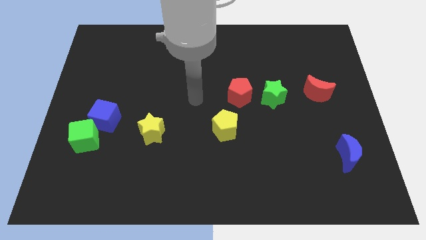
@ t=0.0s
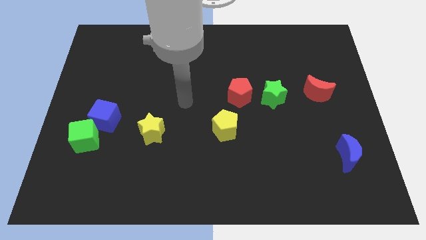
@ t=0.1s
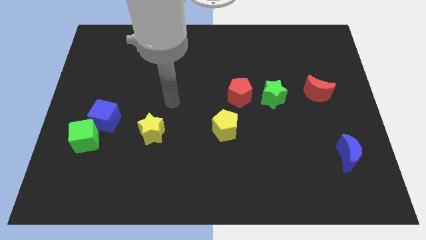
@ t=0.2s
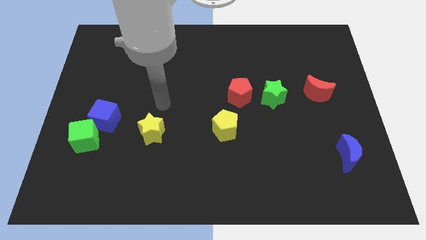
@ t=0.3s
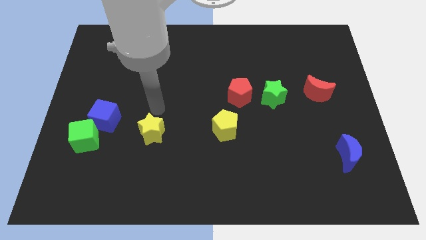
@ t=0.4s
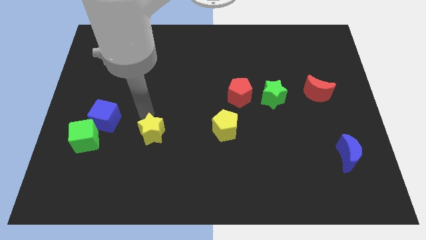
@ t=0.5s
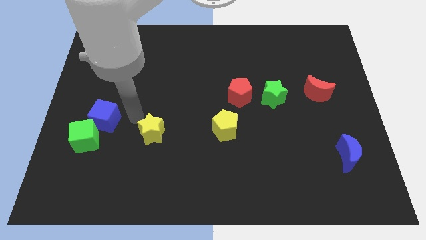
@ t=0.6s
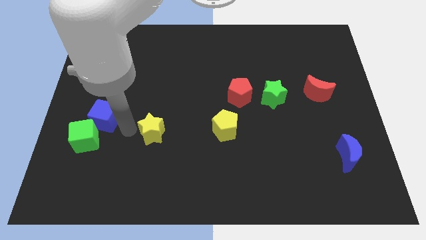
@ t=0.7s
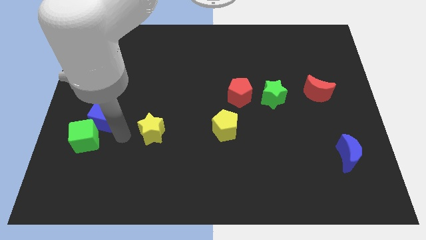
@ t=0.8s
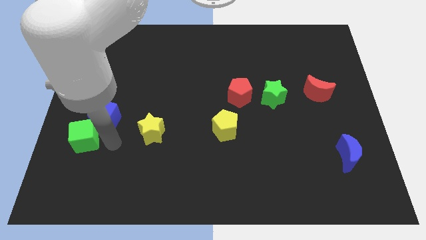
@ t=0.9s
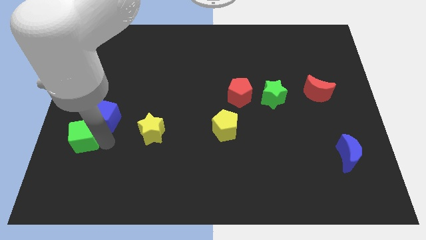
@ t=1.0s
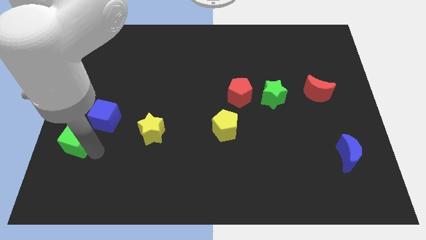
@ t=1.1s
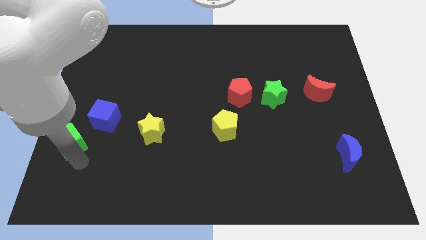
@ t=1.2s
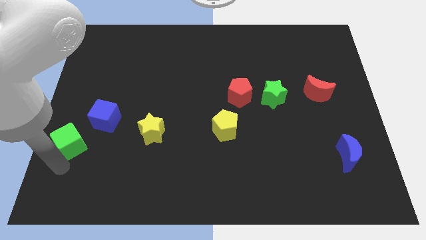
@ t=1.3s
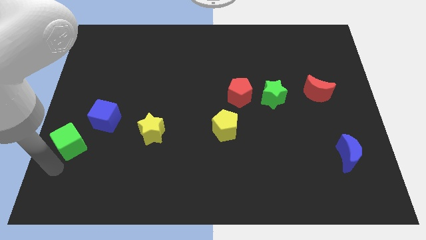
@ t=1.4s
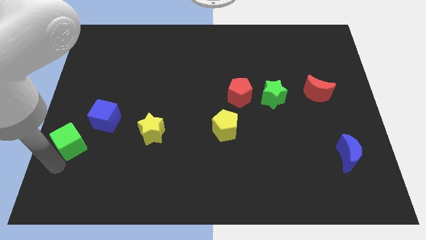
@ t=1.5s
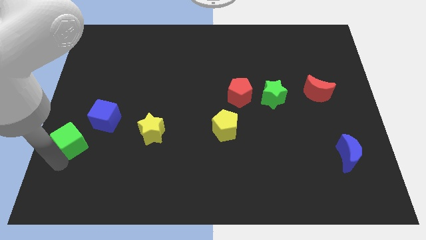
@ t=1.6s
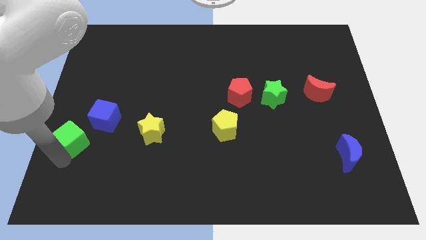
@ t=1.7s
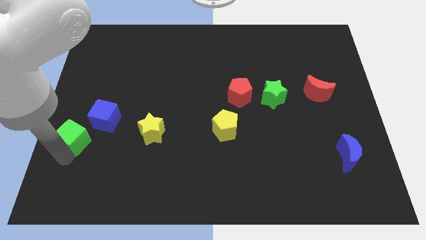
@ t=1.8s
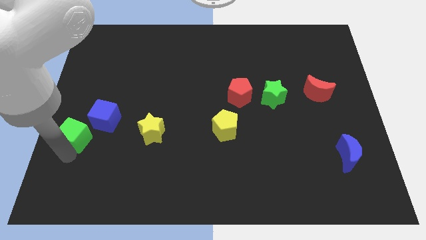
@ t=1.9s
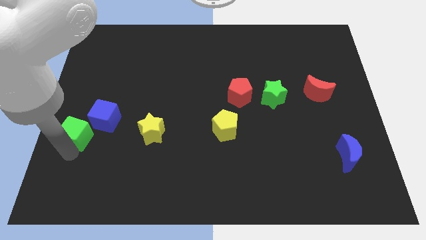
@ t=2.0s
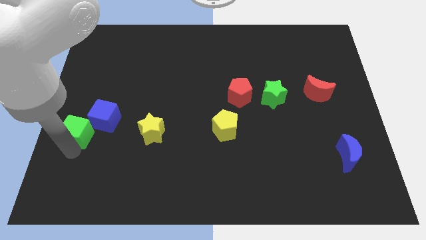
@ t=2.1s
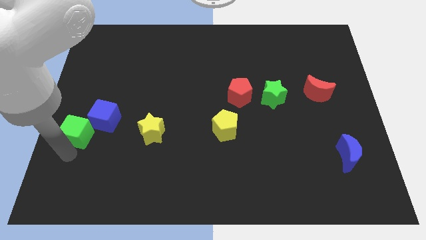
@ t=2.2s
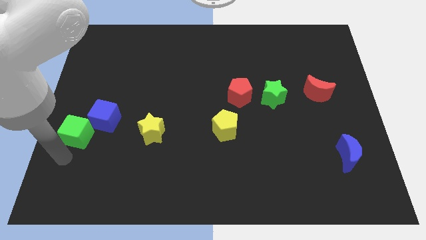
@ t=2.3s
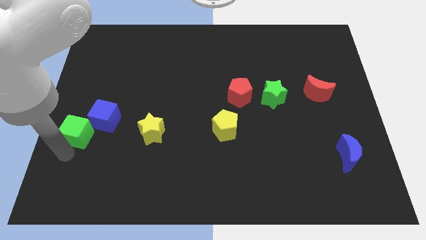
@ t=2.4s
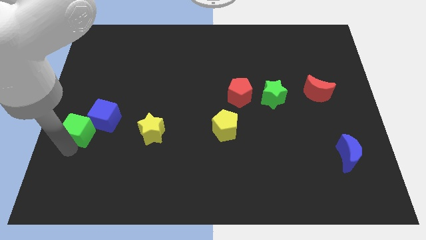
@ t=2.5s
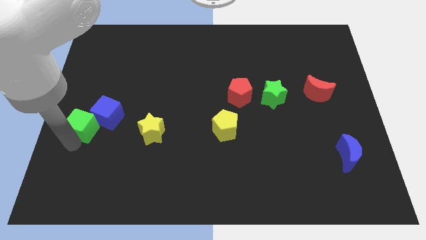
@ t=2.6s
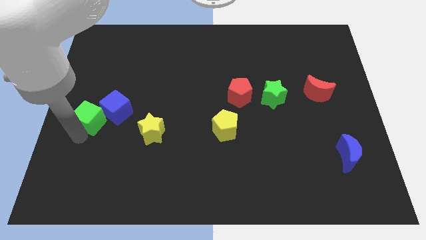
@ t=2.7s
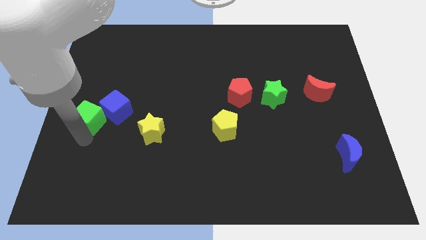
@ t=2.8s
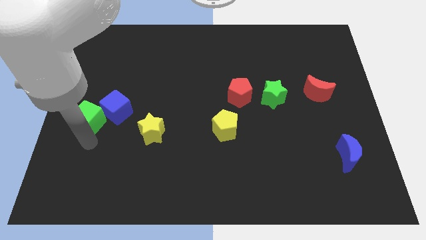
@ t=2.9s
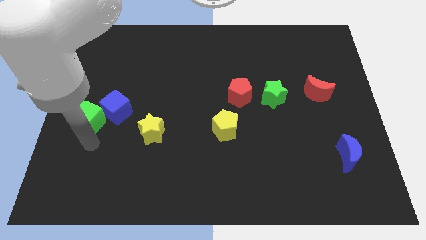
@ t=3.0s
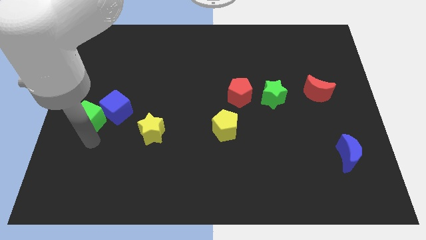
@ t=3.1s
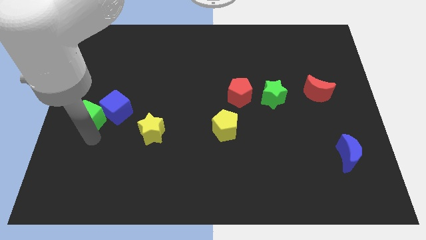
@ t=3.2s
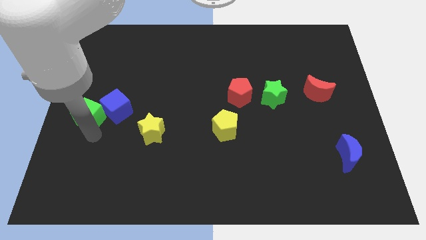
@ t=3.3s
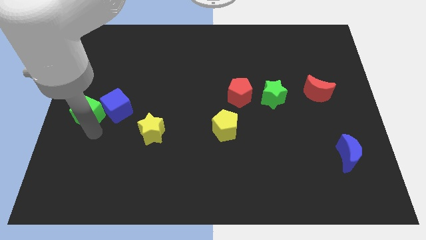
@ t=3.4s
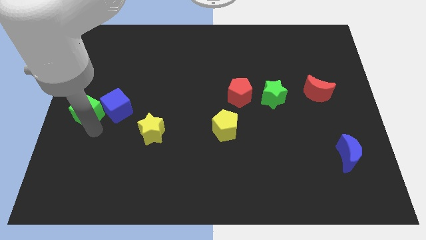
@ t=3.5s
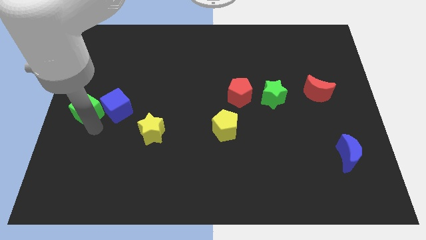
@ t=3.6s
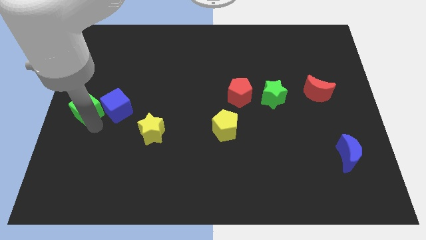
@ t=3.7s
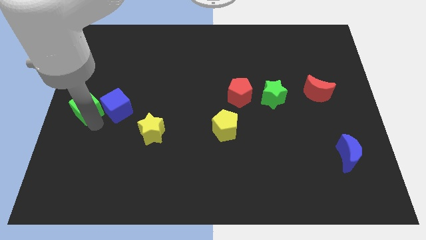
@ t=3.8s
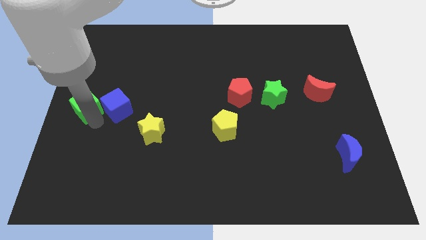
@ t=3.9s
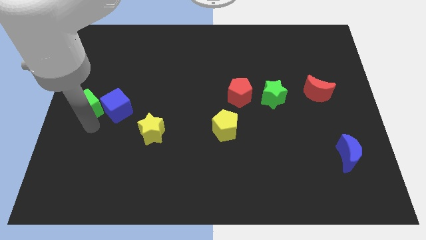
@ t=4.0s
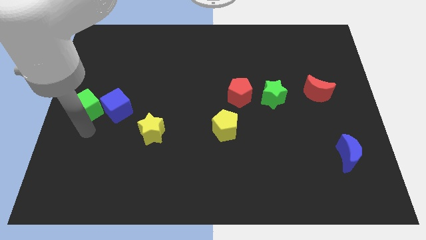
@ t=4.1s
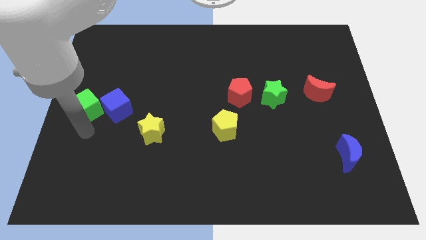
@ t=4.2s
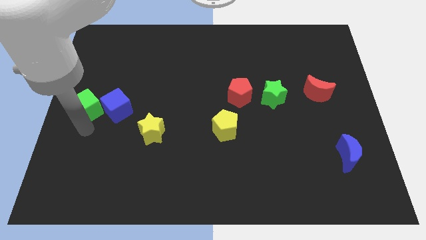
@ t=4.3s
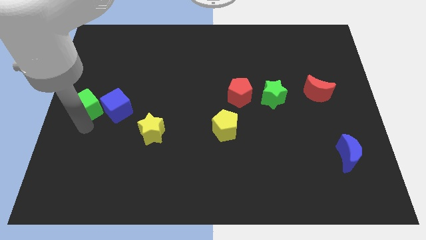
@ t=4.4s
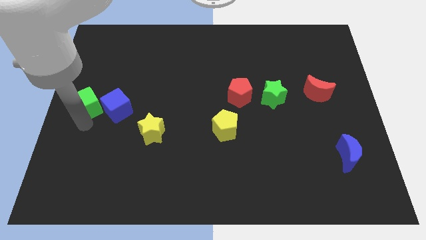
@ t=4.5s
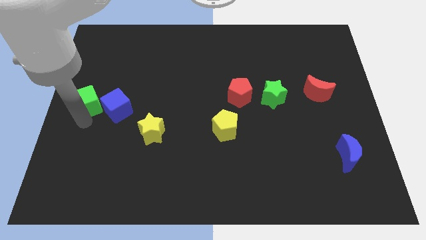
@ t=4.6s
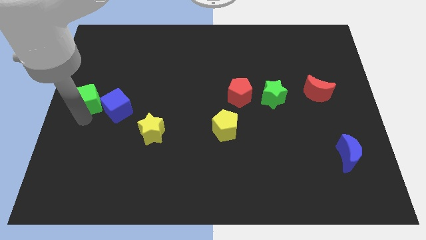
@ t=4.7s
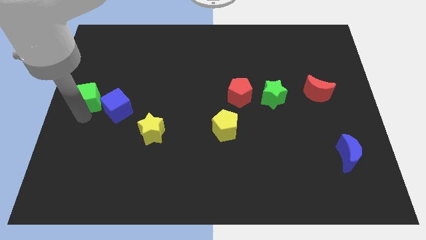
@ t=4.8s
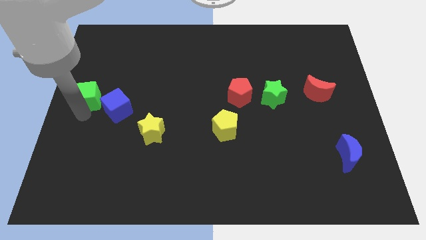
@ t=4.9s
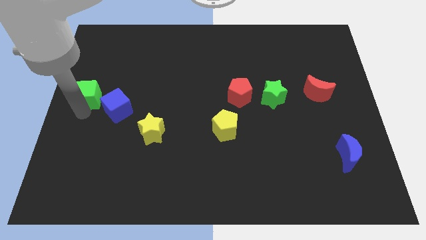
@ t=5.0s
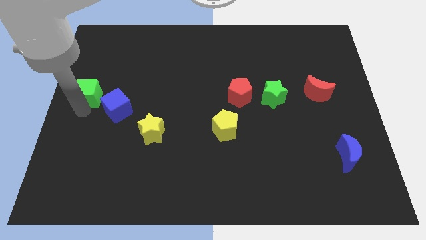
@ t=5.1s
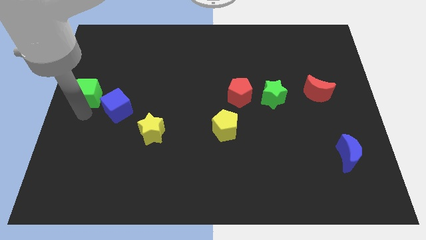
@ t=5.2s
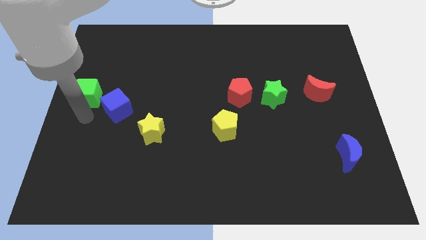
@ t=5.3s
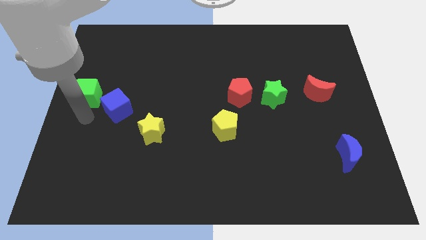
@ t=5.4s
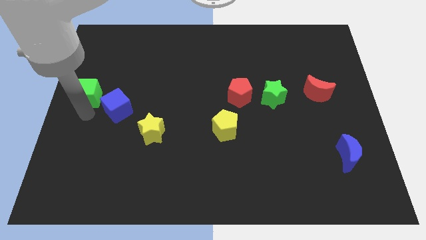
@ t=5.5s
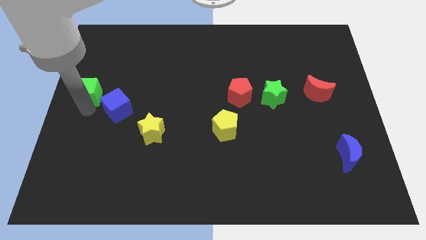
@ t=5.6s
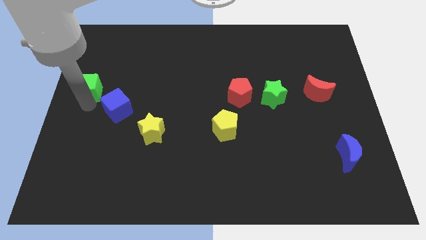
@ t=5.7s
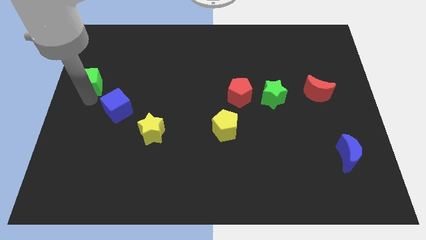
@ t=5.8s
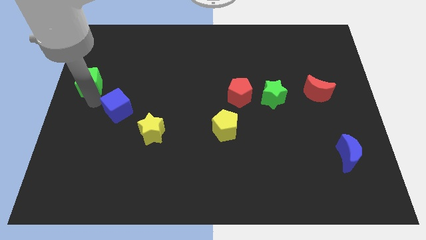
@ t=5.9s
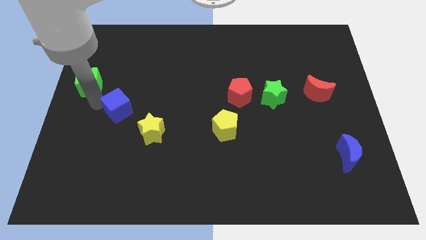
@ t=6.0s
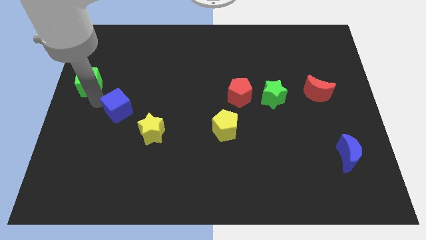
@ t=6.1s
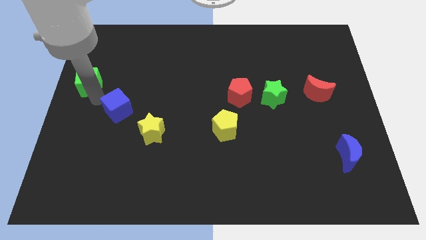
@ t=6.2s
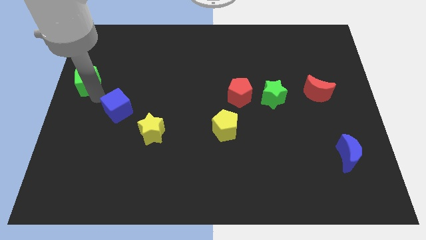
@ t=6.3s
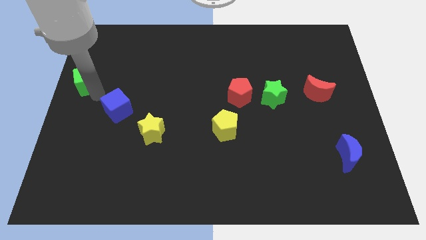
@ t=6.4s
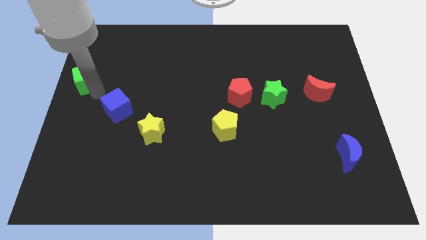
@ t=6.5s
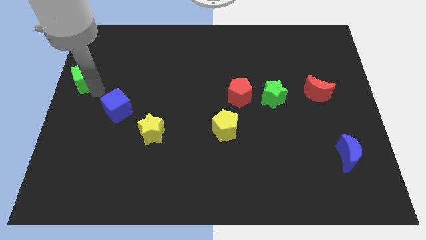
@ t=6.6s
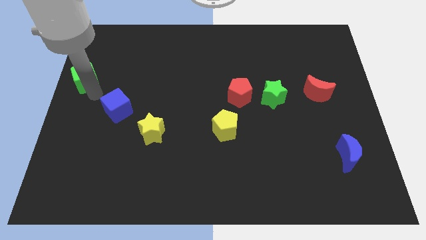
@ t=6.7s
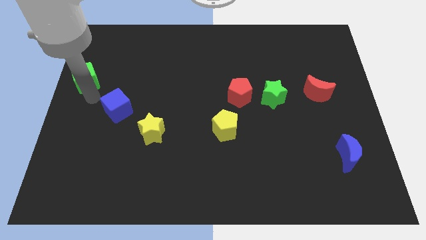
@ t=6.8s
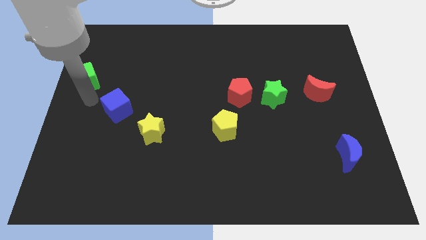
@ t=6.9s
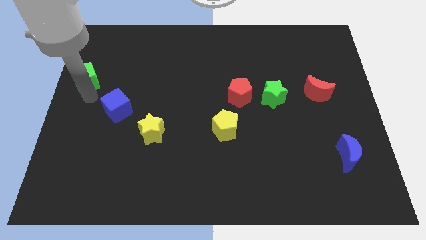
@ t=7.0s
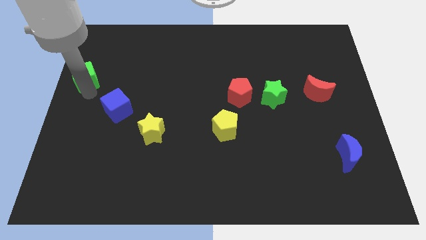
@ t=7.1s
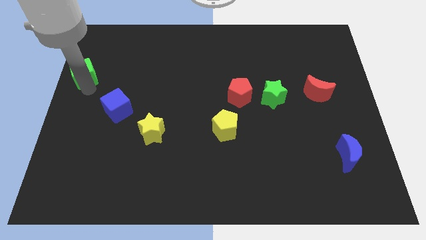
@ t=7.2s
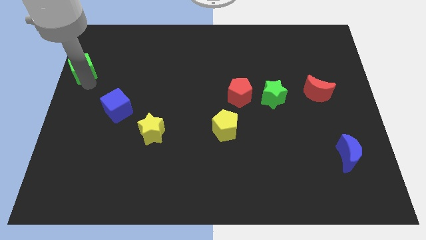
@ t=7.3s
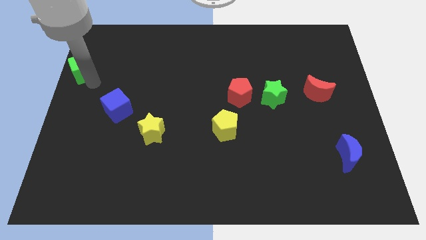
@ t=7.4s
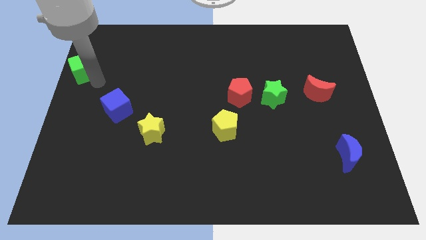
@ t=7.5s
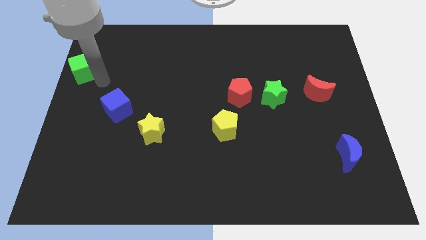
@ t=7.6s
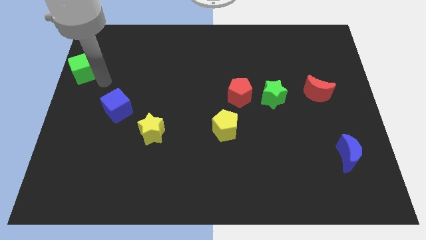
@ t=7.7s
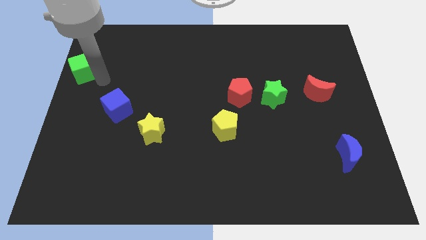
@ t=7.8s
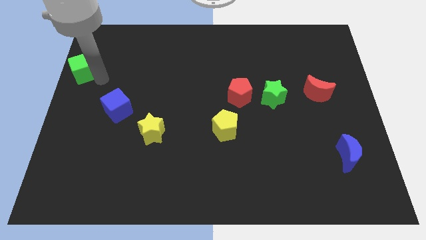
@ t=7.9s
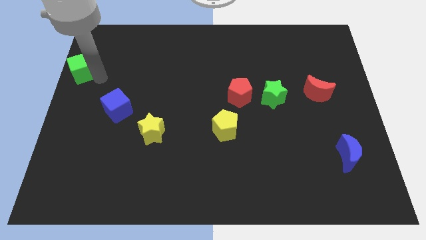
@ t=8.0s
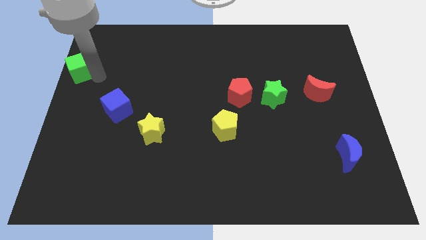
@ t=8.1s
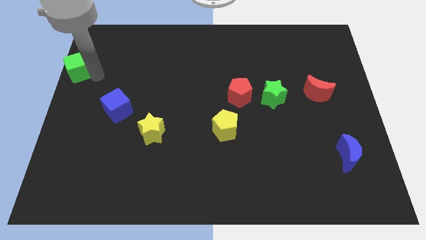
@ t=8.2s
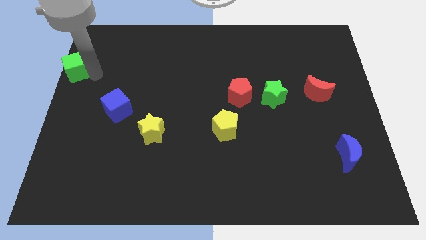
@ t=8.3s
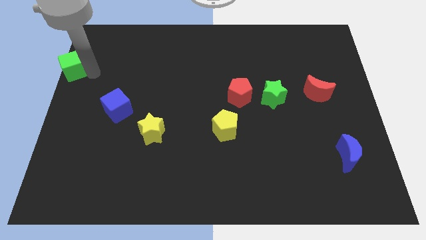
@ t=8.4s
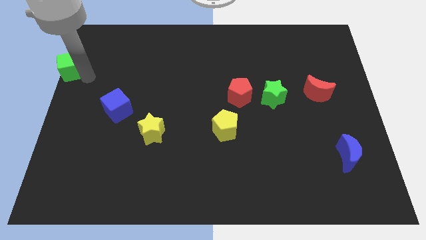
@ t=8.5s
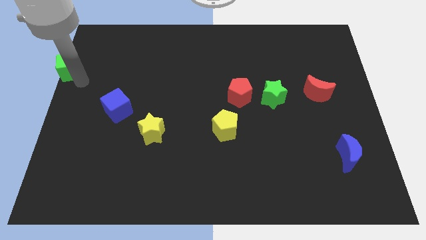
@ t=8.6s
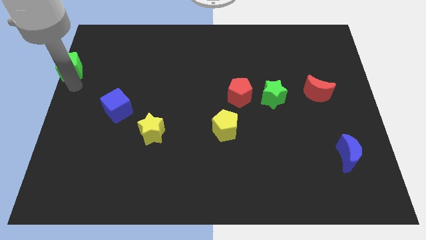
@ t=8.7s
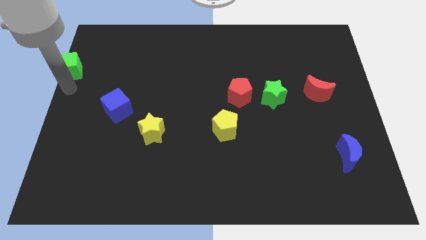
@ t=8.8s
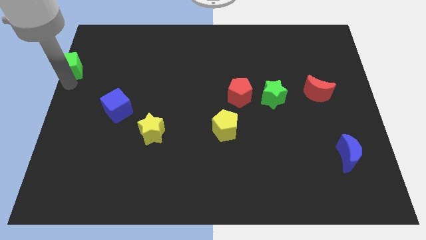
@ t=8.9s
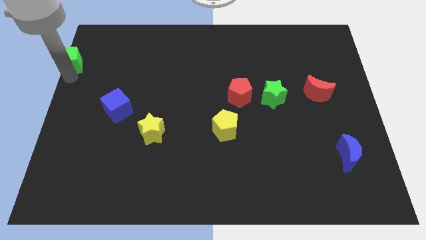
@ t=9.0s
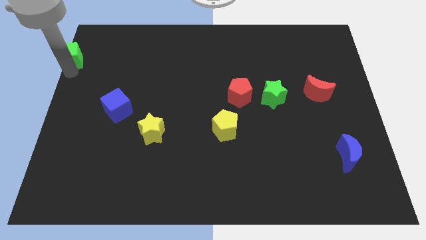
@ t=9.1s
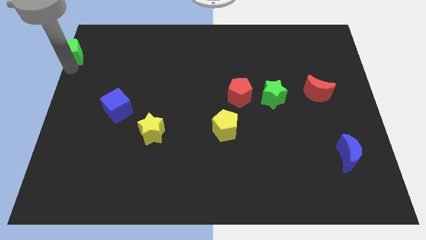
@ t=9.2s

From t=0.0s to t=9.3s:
put the green cube to the top left of the board
